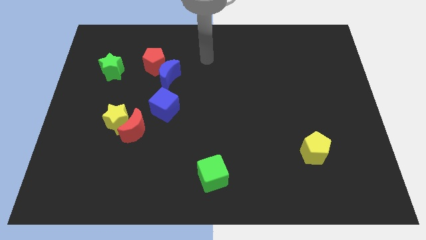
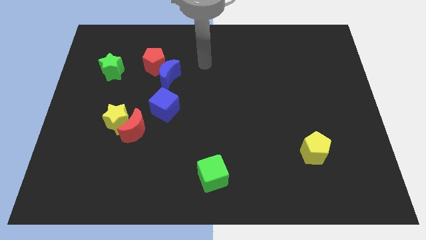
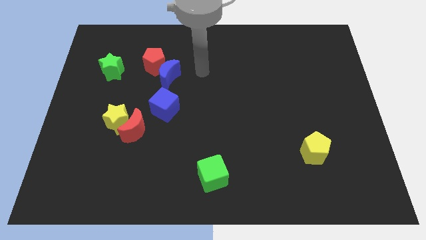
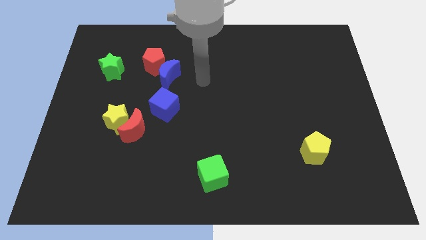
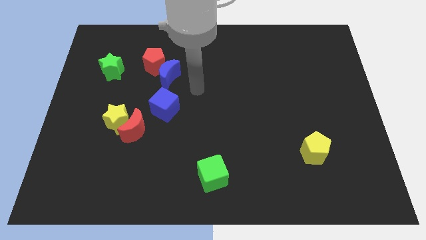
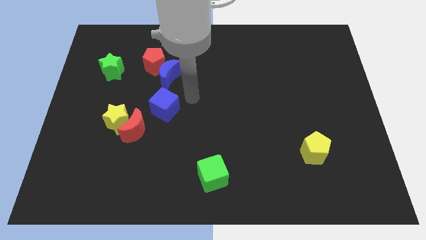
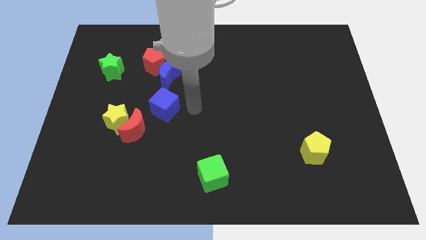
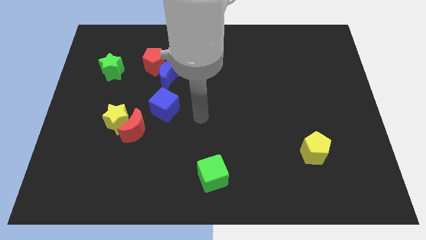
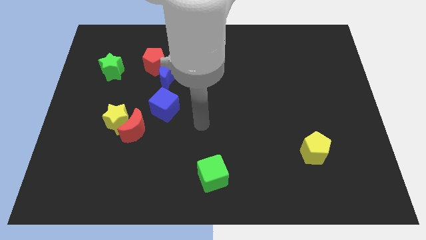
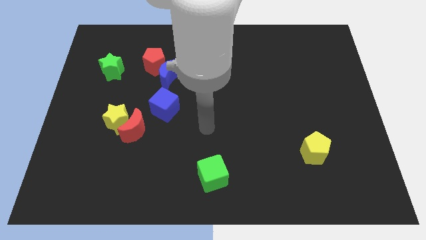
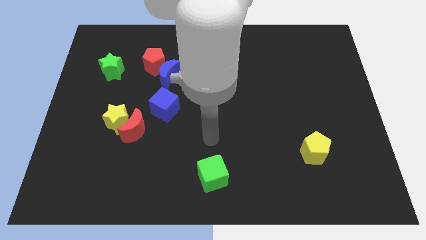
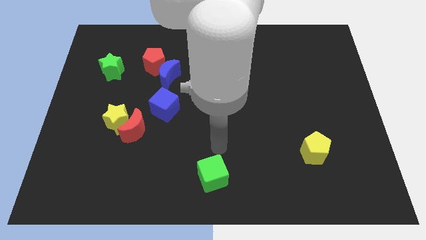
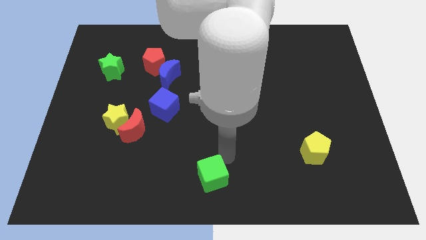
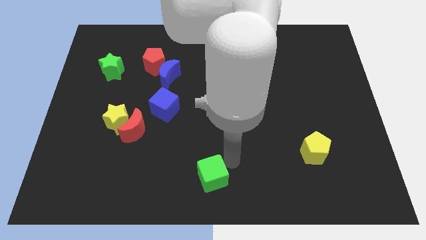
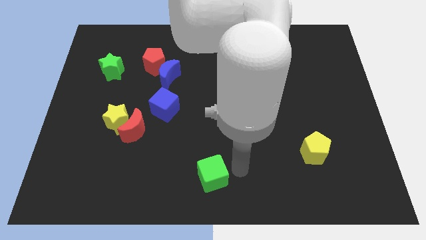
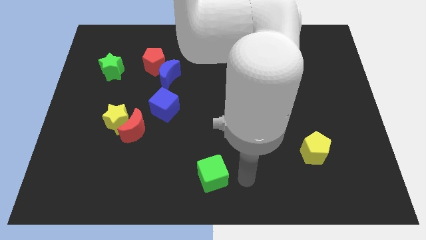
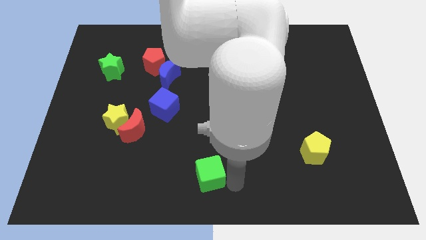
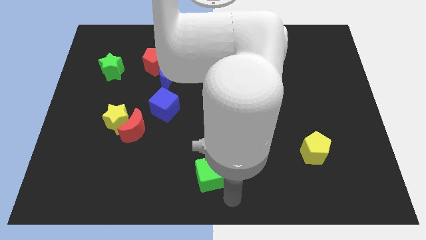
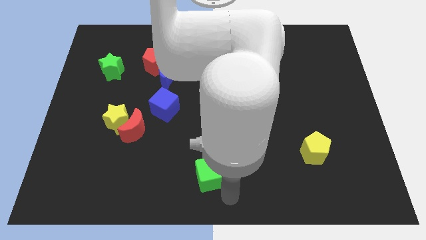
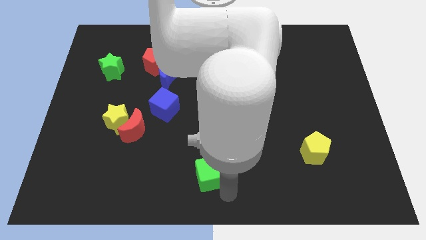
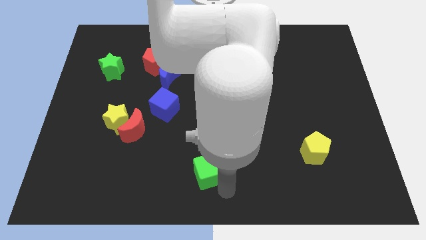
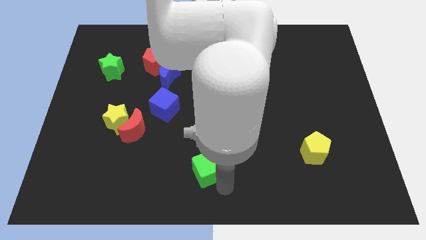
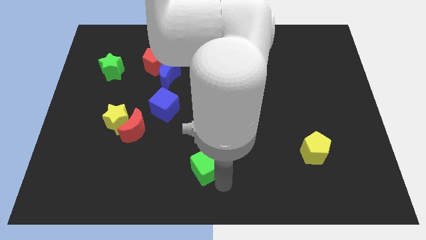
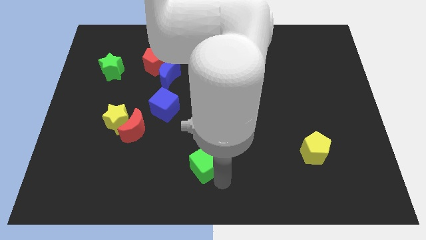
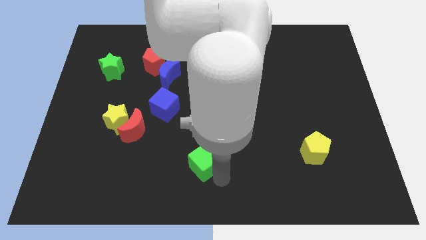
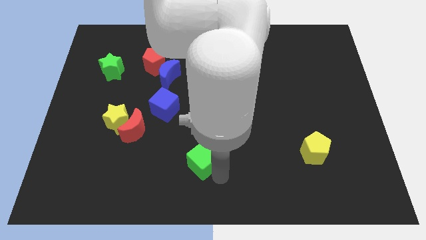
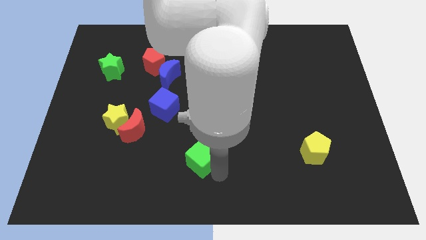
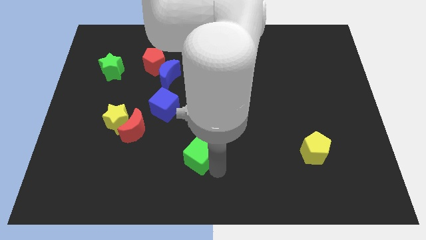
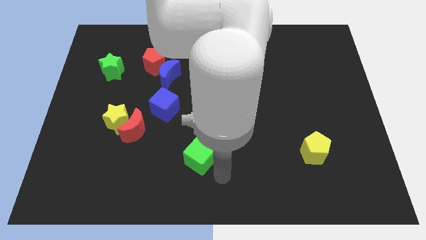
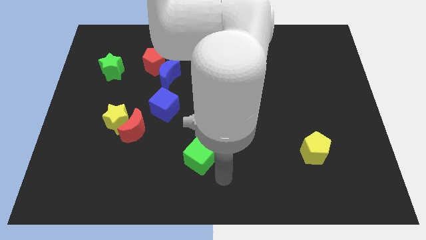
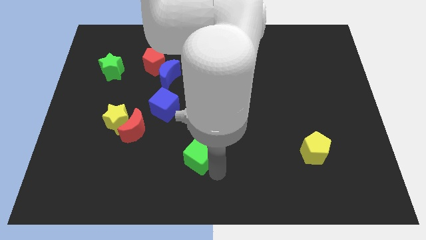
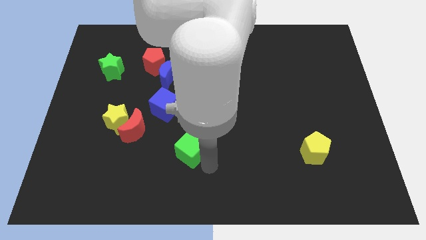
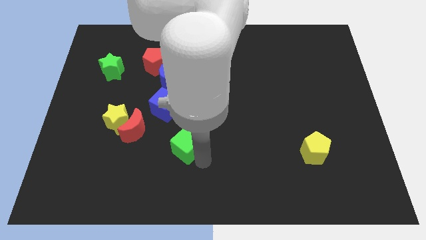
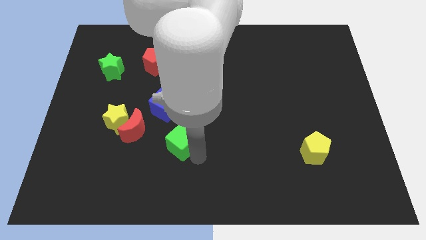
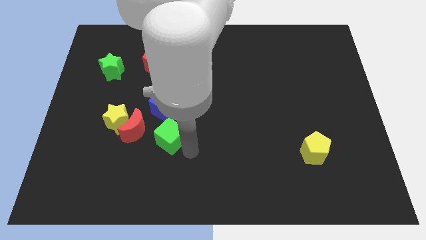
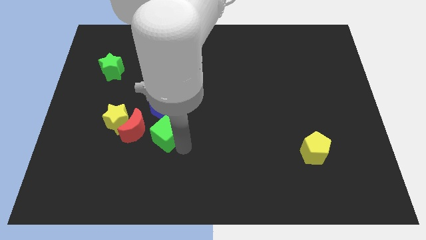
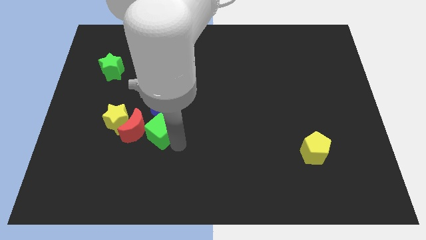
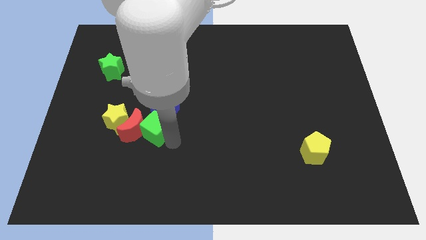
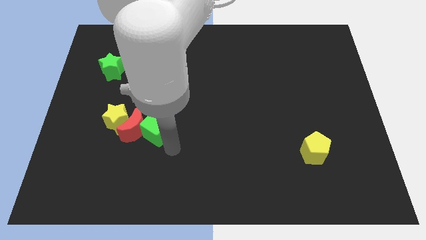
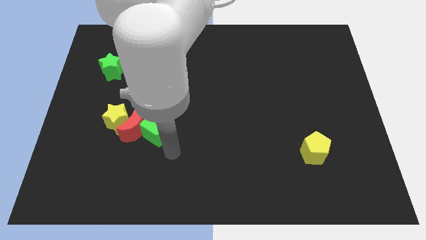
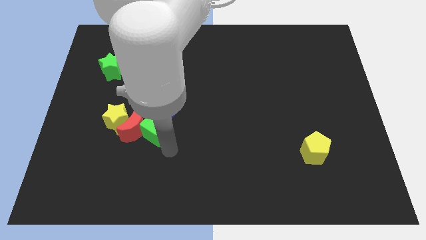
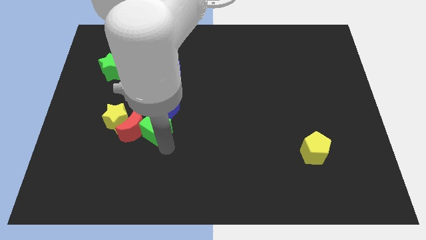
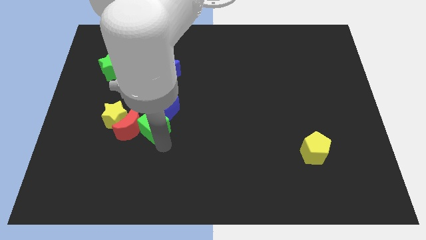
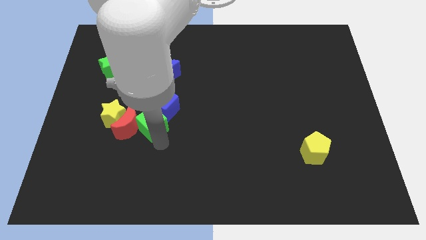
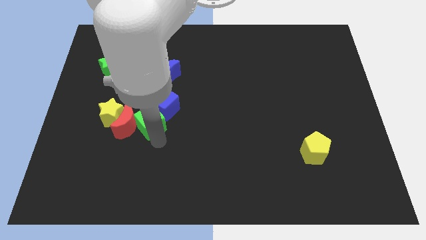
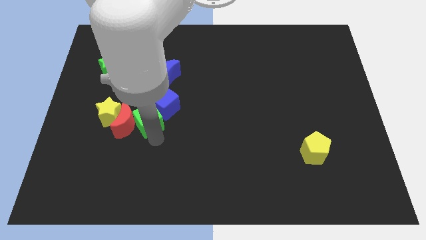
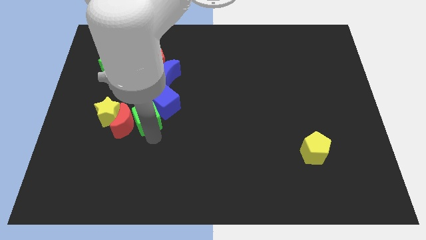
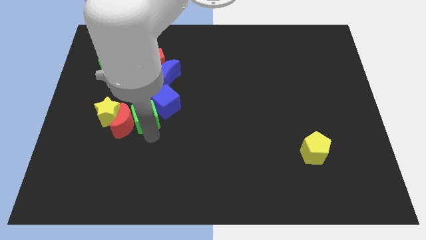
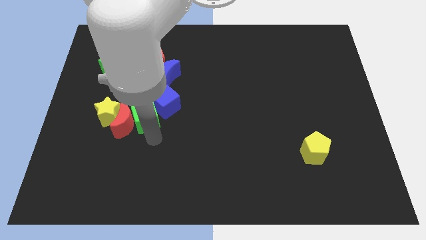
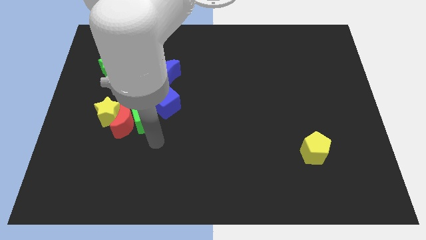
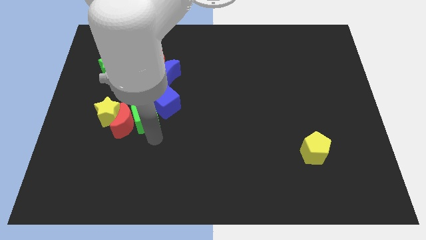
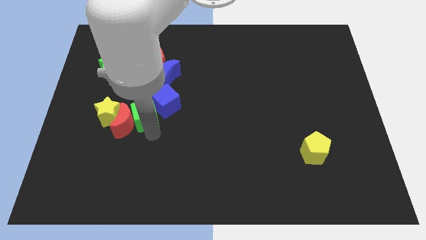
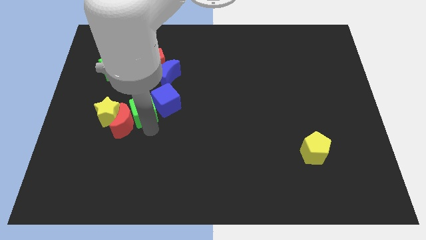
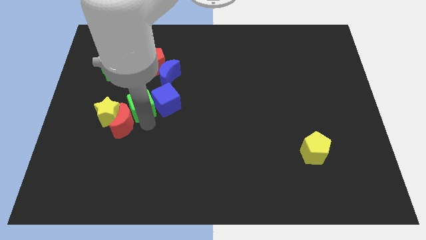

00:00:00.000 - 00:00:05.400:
push the green cube diagonally down and to the left of the blue moon

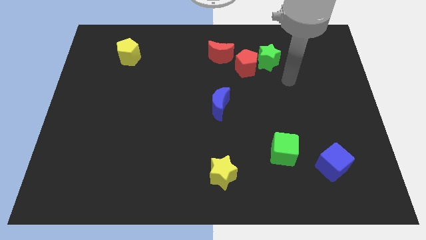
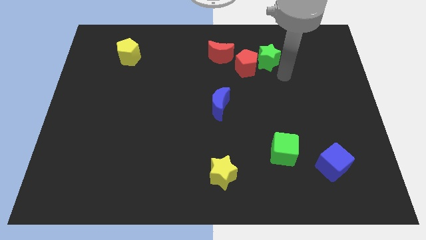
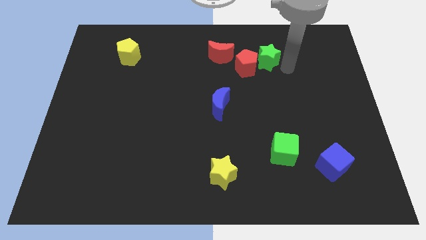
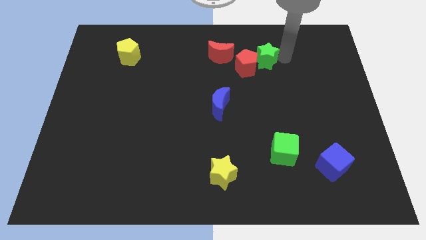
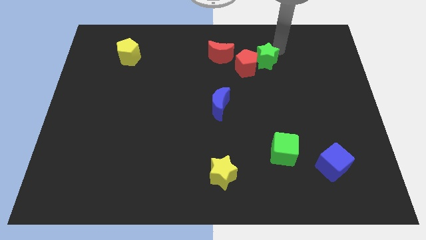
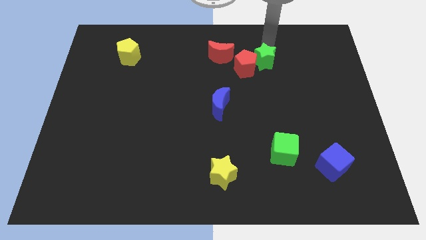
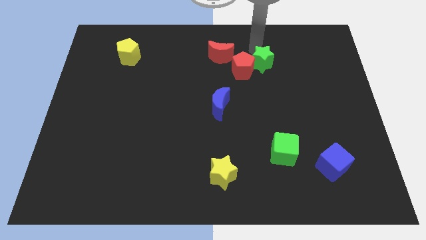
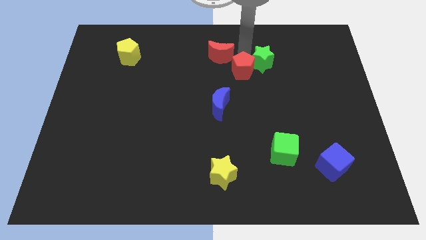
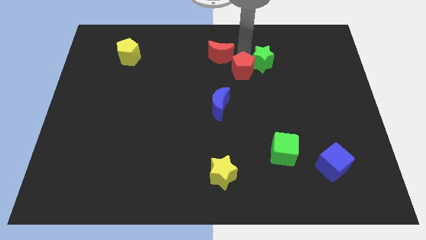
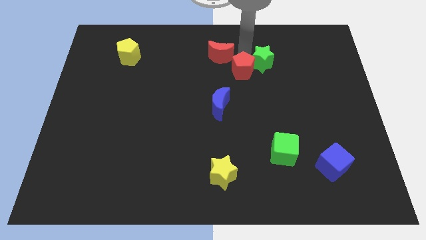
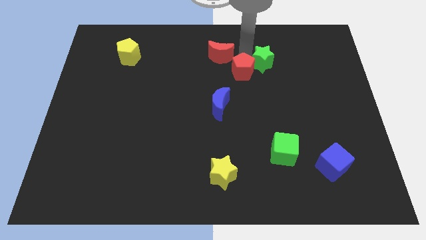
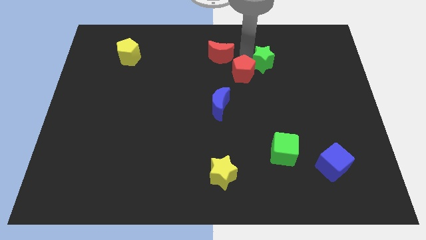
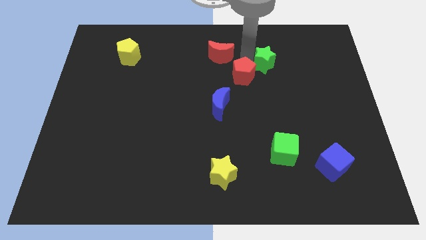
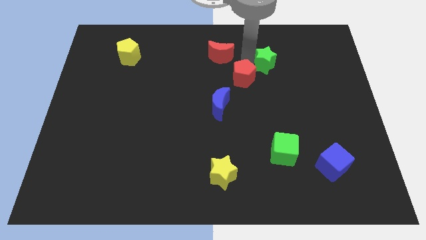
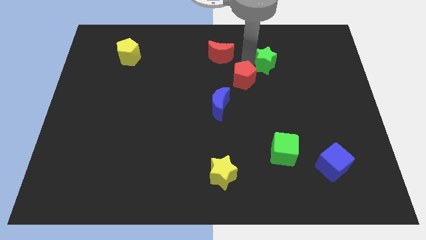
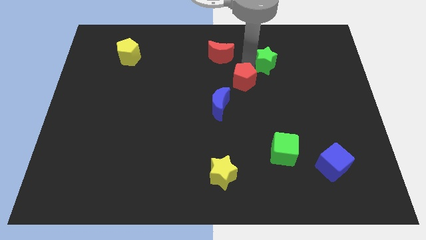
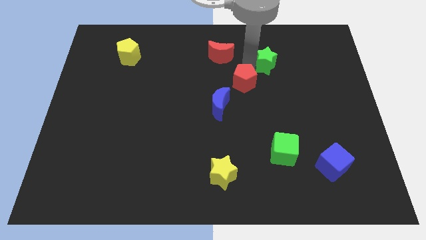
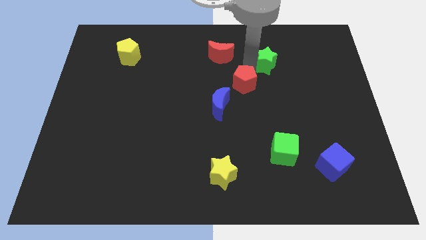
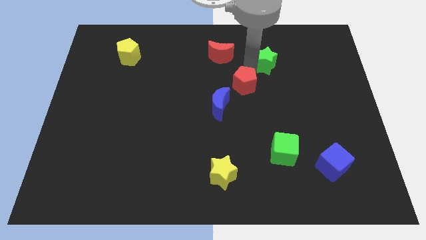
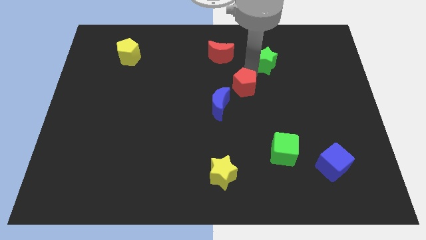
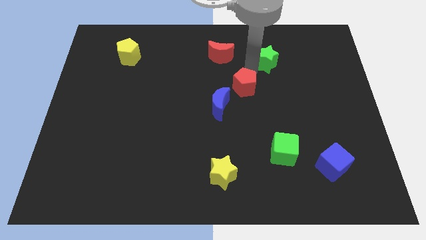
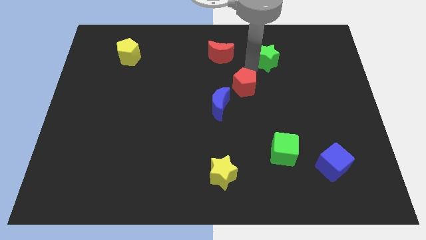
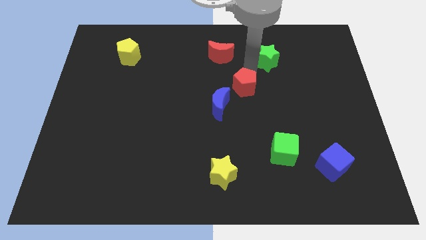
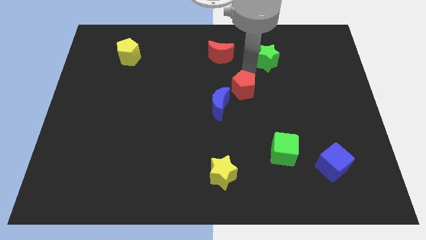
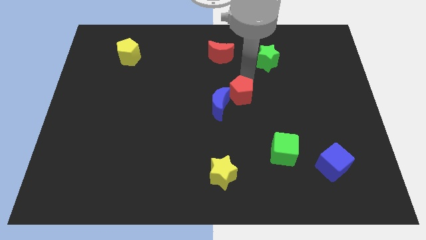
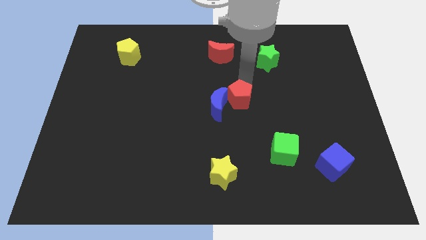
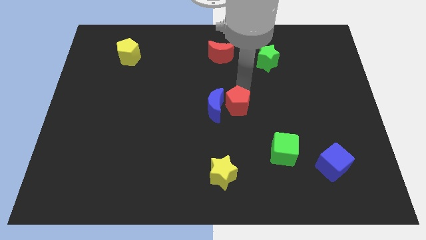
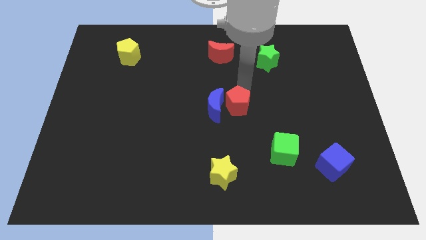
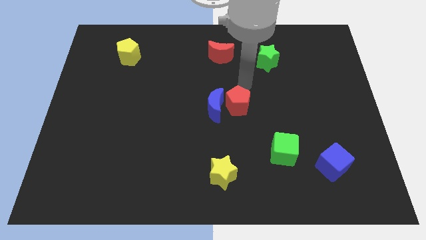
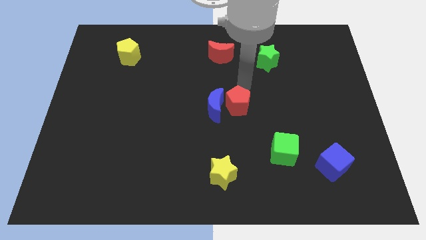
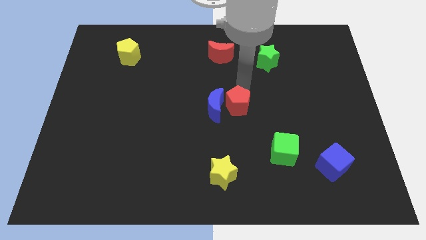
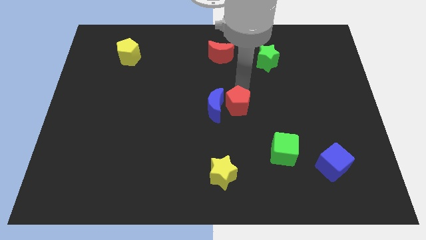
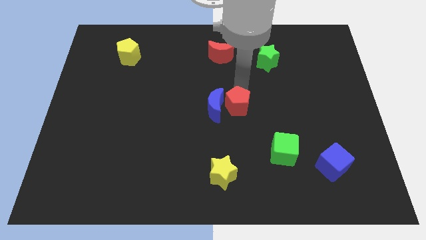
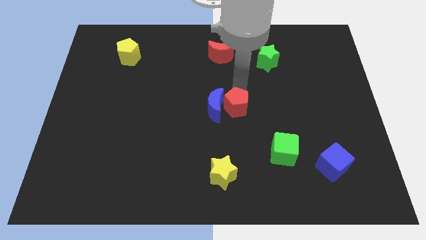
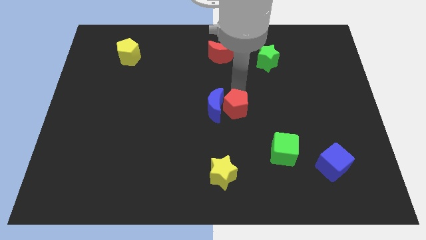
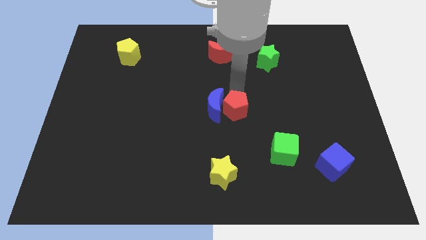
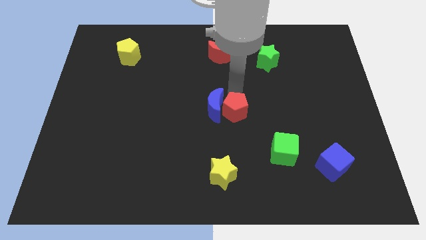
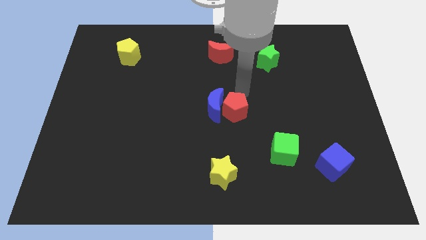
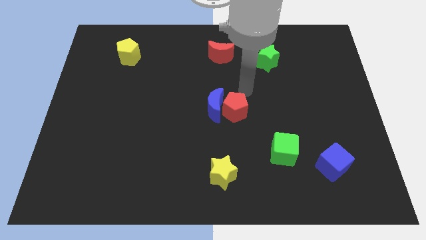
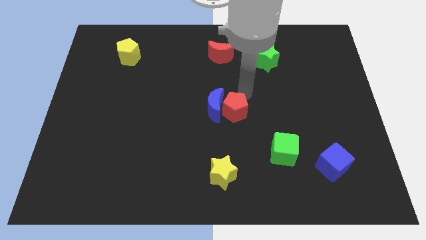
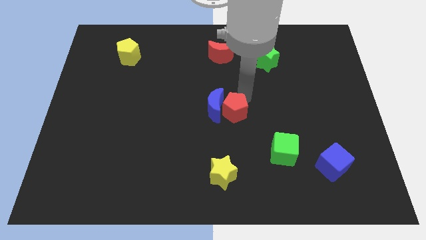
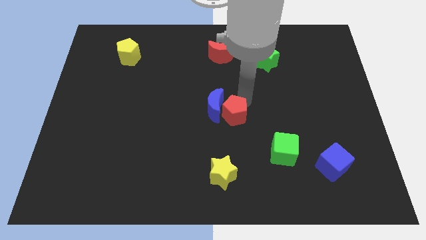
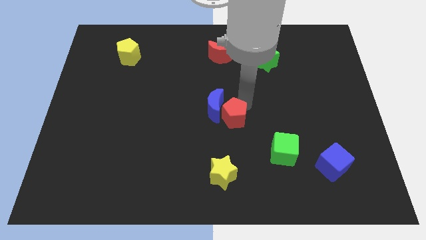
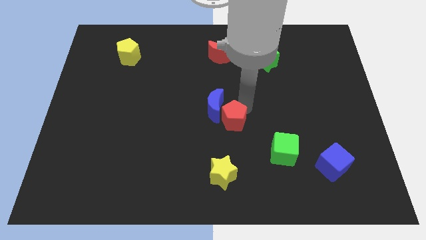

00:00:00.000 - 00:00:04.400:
move the red pentagon to the bottom of the blue moon
